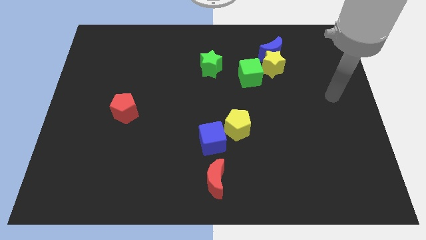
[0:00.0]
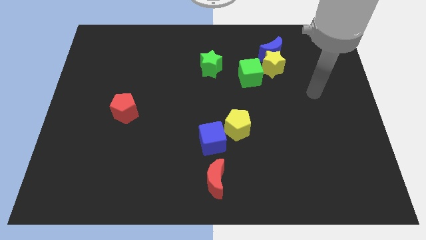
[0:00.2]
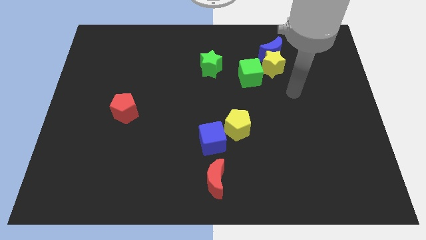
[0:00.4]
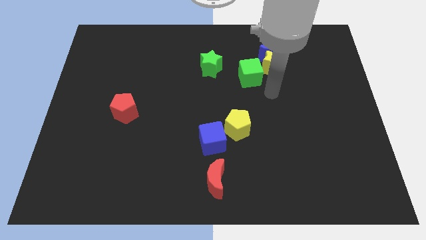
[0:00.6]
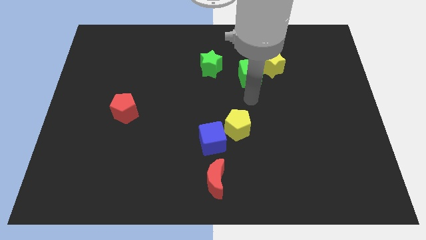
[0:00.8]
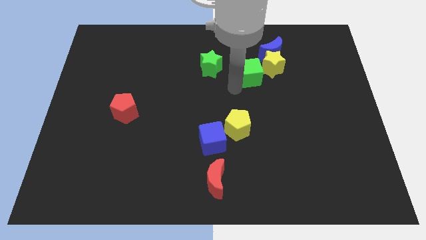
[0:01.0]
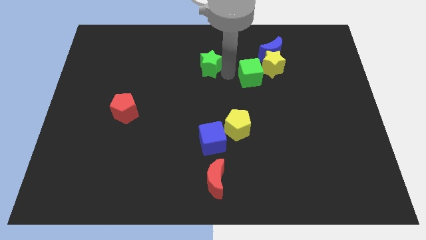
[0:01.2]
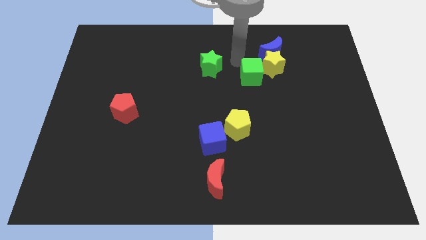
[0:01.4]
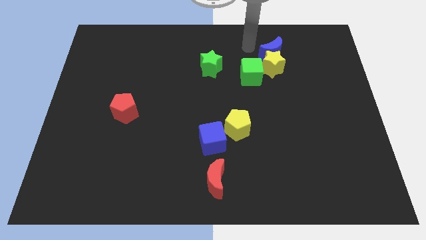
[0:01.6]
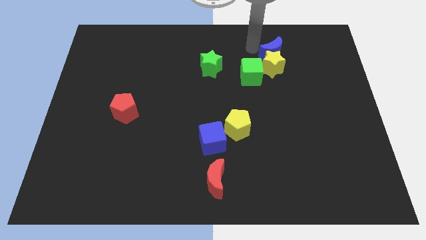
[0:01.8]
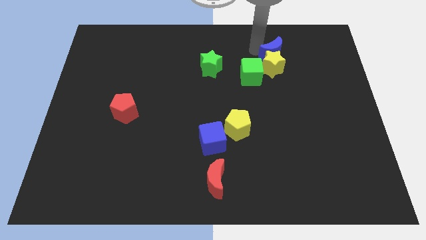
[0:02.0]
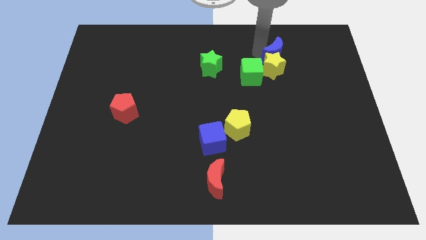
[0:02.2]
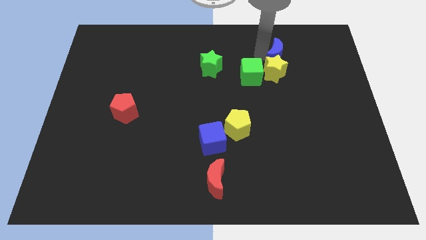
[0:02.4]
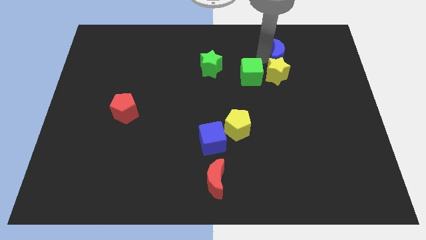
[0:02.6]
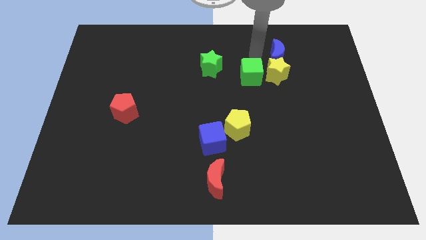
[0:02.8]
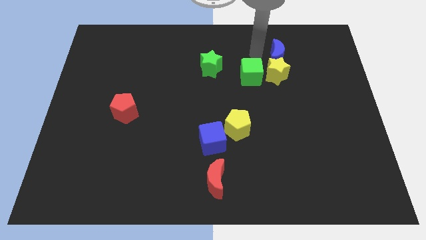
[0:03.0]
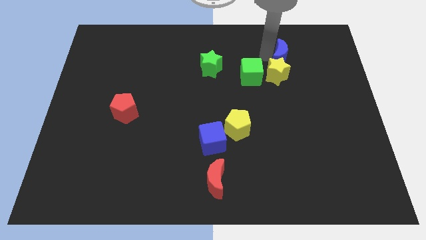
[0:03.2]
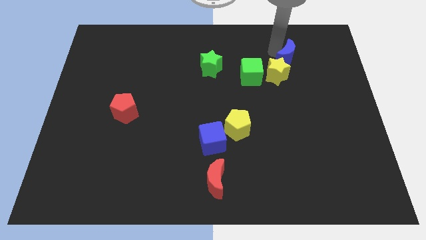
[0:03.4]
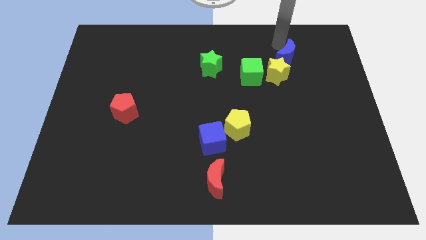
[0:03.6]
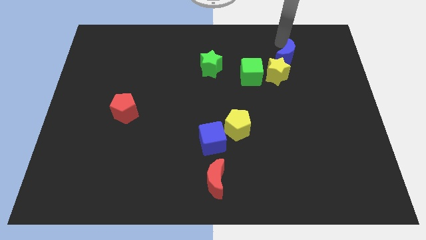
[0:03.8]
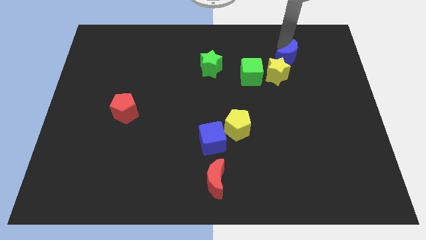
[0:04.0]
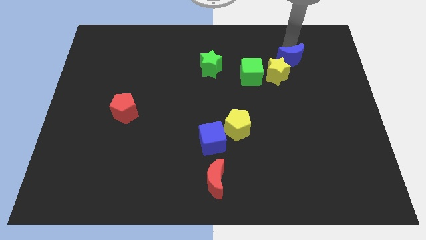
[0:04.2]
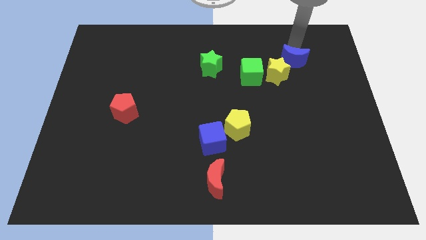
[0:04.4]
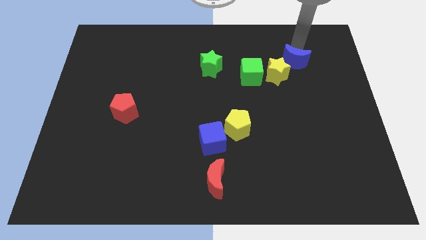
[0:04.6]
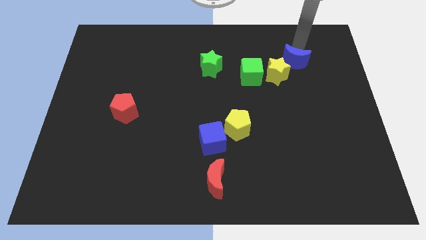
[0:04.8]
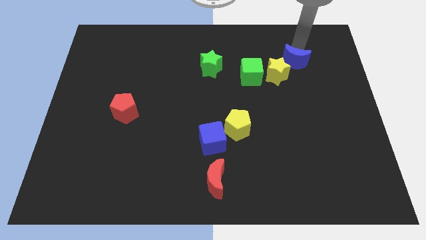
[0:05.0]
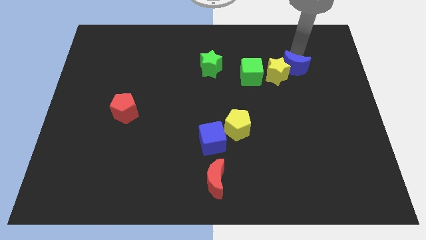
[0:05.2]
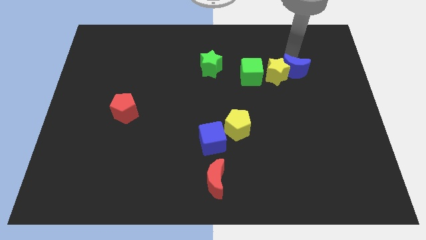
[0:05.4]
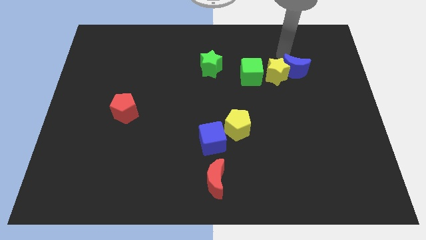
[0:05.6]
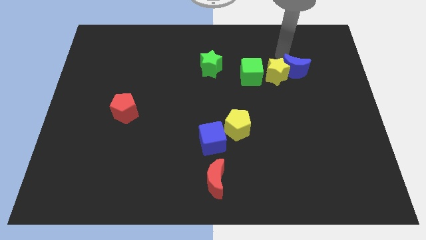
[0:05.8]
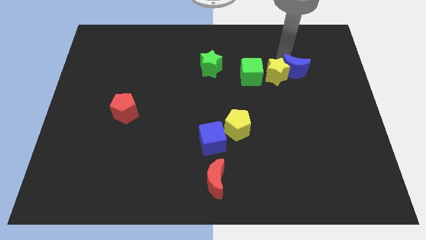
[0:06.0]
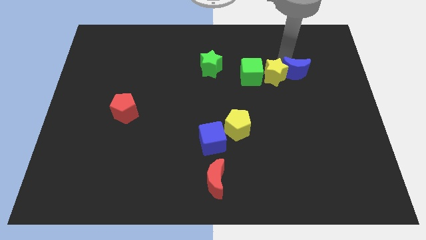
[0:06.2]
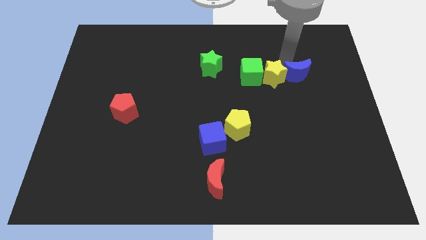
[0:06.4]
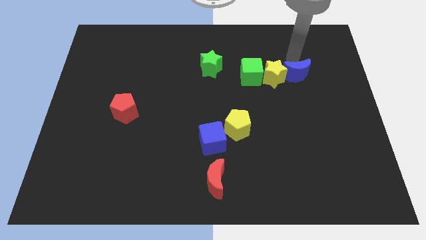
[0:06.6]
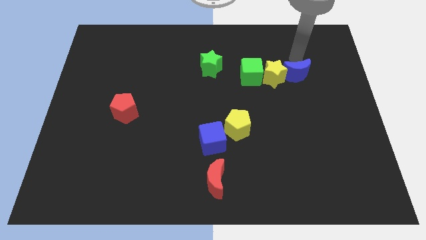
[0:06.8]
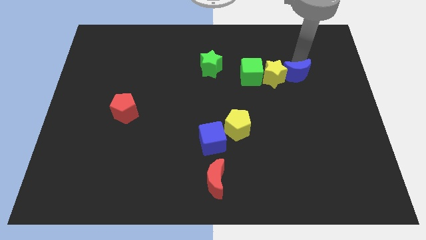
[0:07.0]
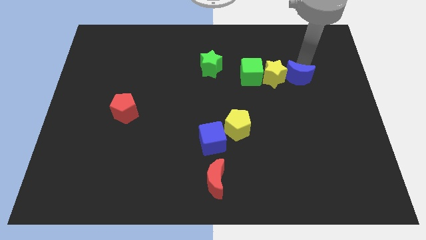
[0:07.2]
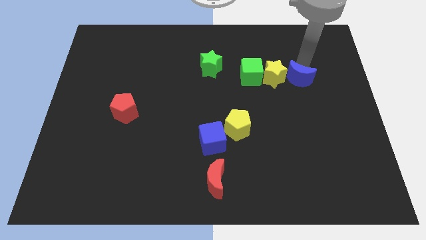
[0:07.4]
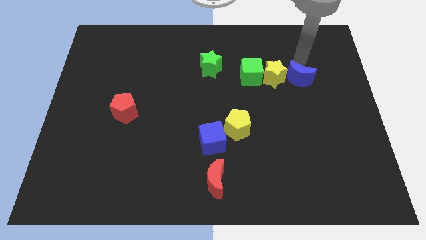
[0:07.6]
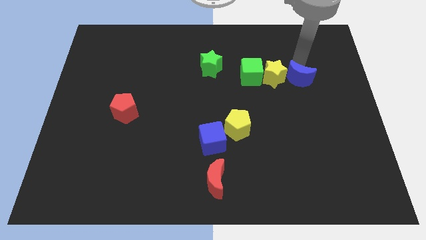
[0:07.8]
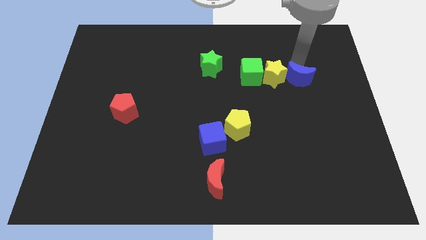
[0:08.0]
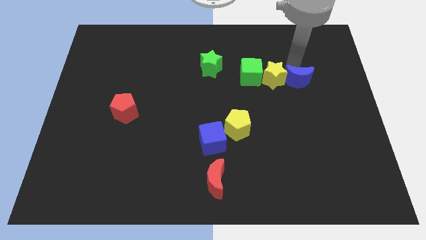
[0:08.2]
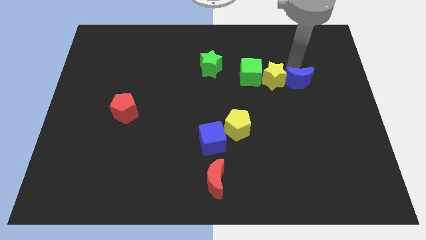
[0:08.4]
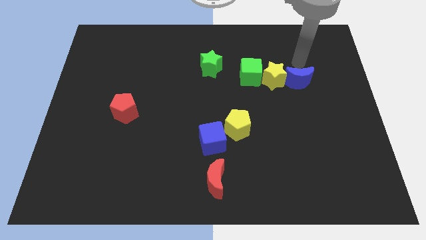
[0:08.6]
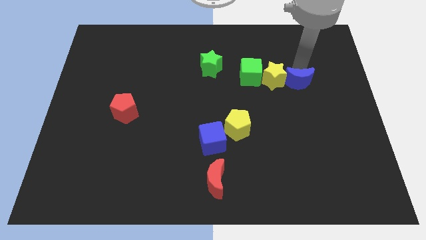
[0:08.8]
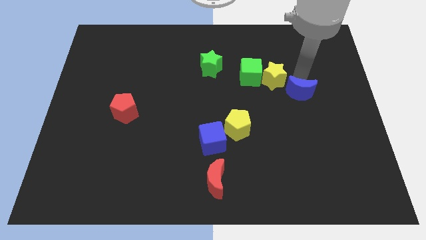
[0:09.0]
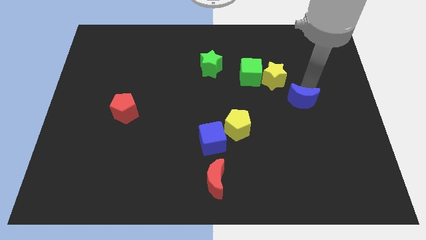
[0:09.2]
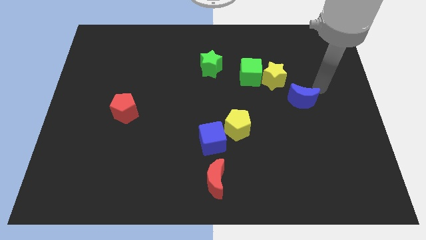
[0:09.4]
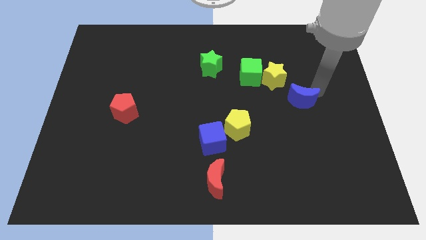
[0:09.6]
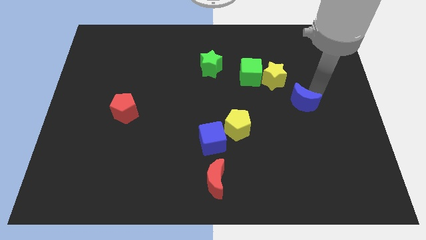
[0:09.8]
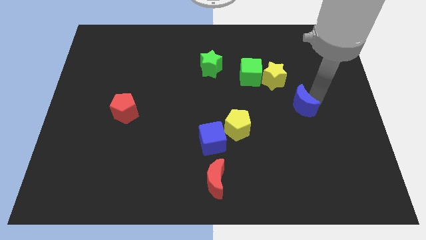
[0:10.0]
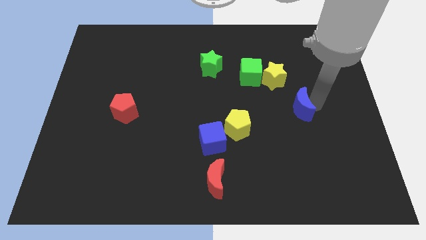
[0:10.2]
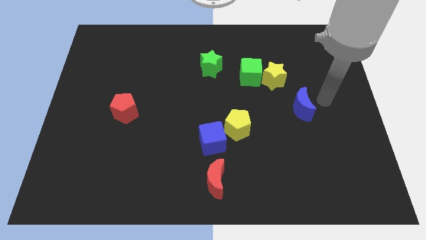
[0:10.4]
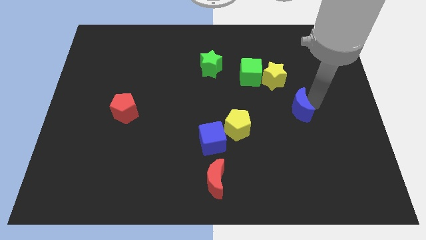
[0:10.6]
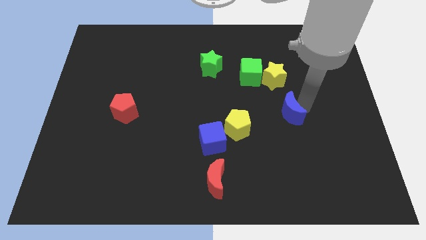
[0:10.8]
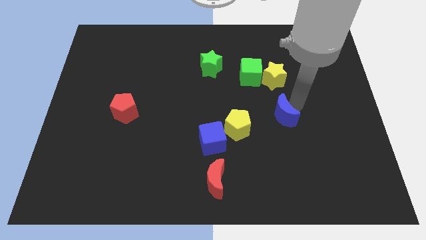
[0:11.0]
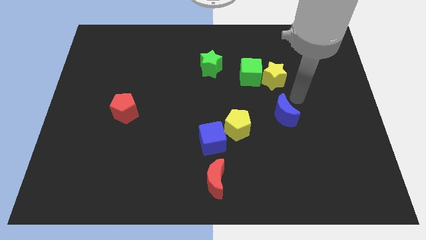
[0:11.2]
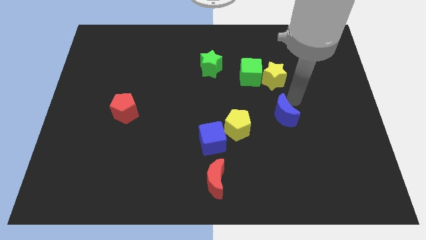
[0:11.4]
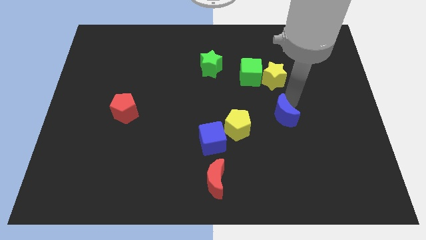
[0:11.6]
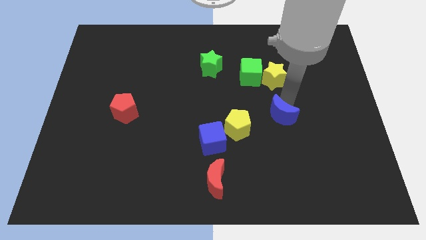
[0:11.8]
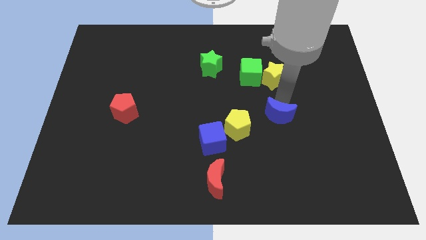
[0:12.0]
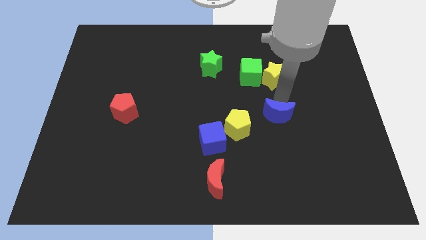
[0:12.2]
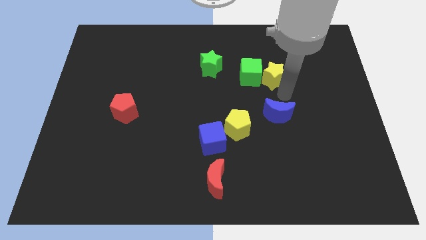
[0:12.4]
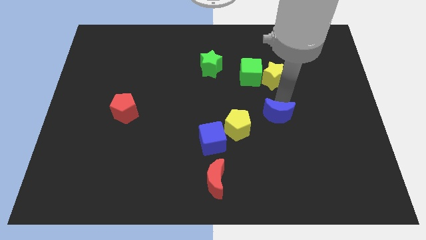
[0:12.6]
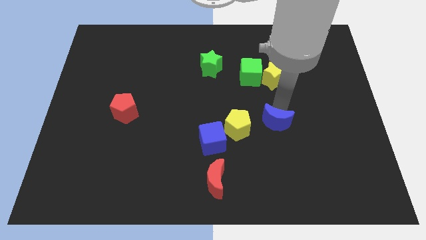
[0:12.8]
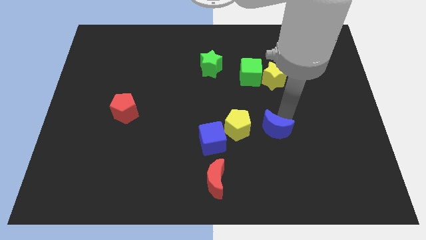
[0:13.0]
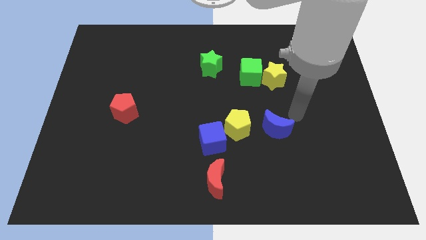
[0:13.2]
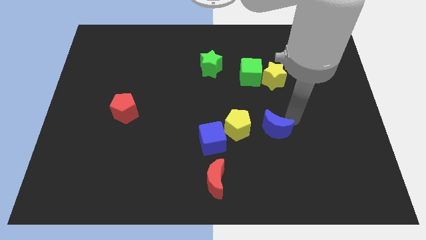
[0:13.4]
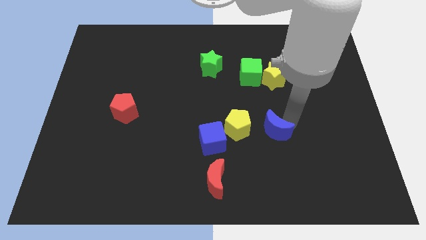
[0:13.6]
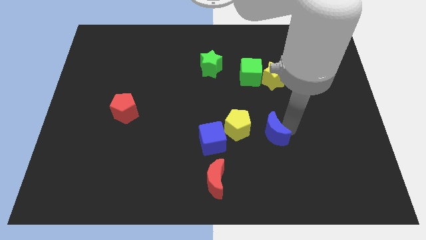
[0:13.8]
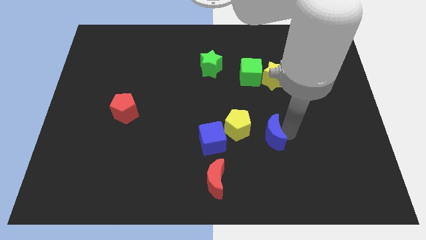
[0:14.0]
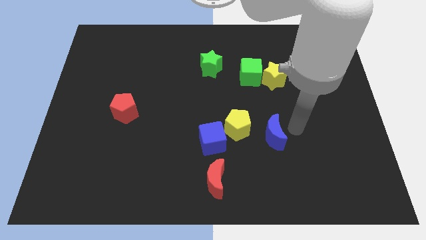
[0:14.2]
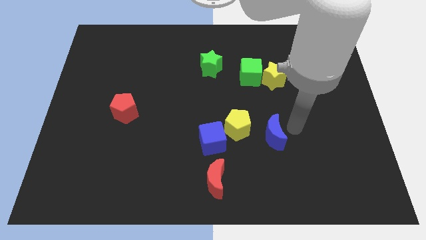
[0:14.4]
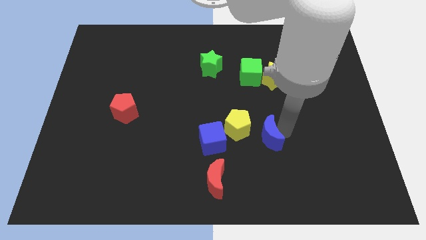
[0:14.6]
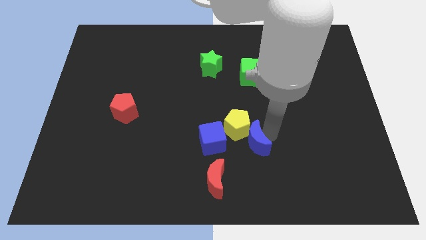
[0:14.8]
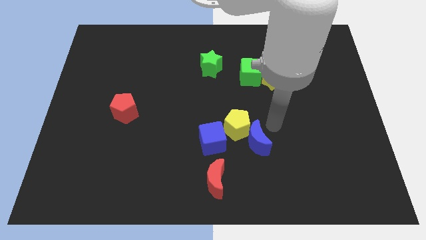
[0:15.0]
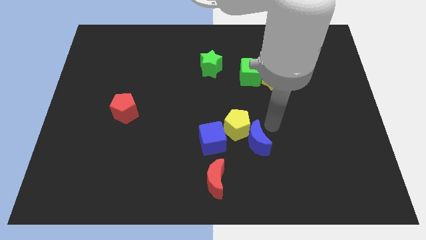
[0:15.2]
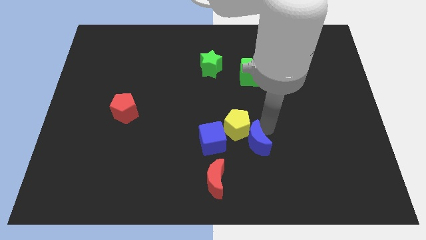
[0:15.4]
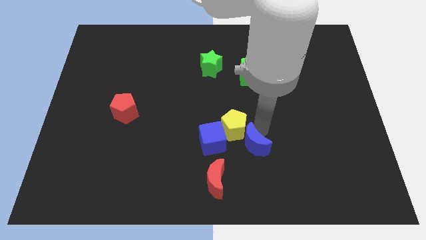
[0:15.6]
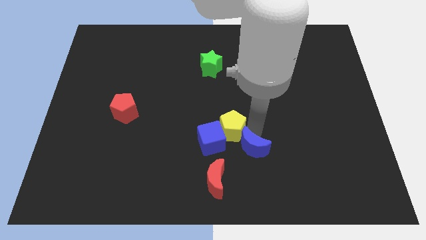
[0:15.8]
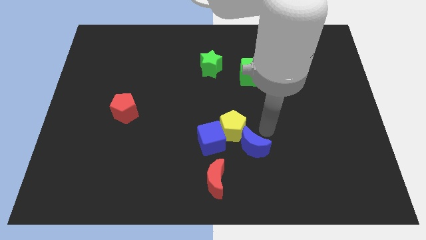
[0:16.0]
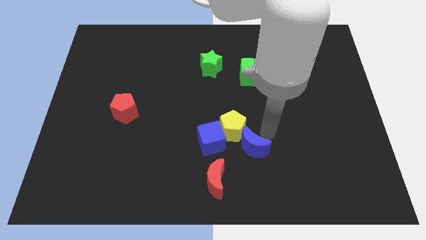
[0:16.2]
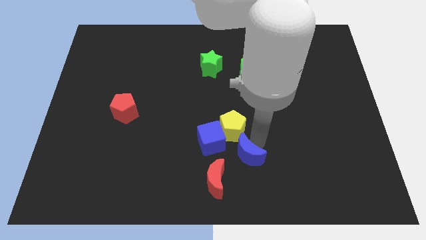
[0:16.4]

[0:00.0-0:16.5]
push the blue moon diagonally down and to the right of the blue cube
